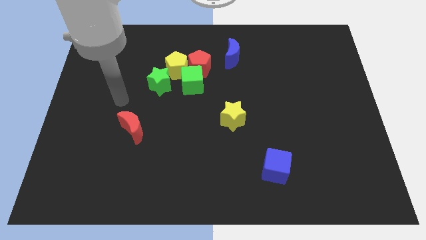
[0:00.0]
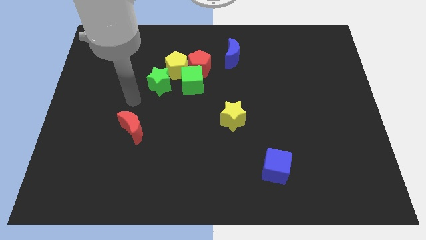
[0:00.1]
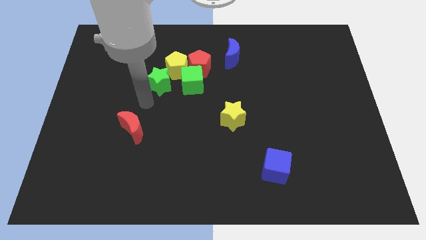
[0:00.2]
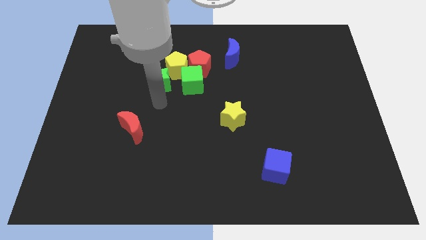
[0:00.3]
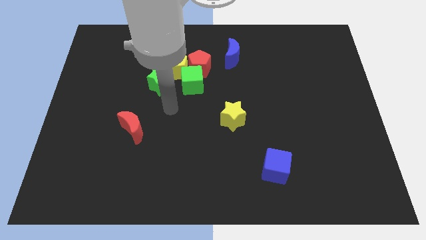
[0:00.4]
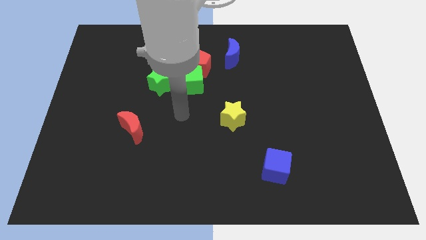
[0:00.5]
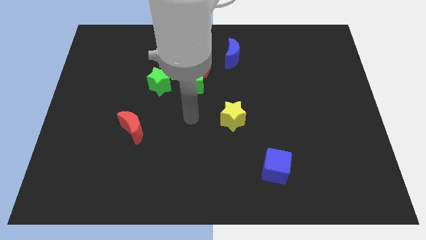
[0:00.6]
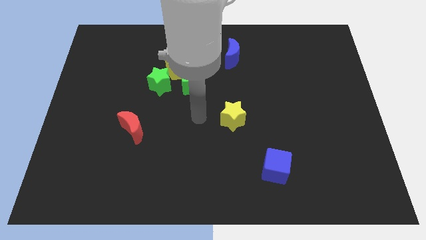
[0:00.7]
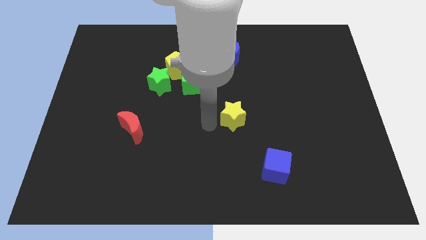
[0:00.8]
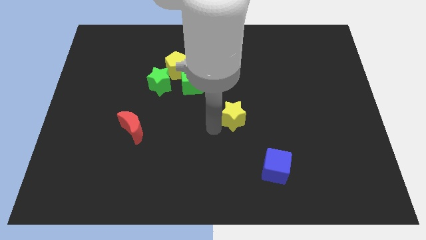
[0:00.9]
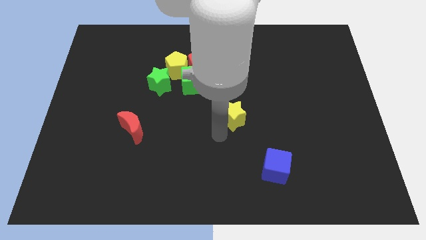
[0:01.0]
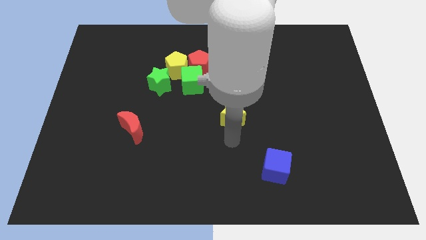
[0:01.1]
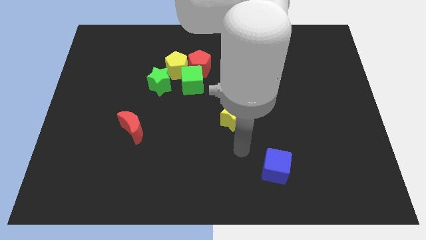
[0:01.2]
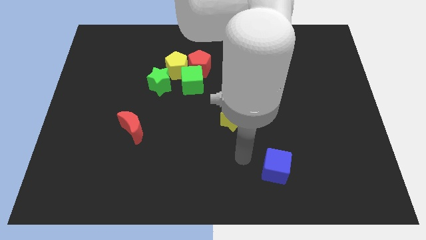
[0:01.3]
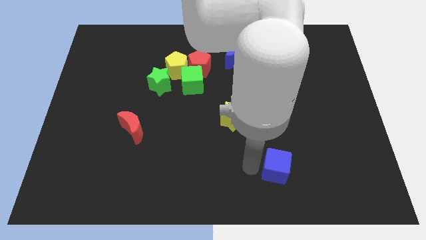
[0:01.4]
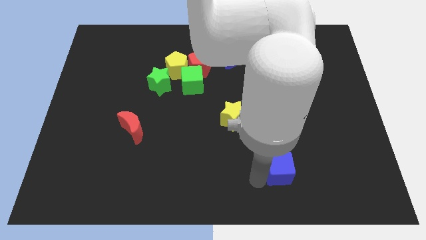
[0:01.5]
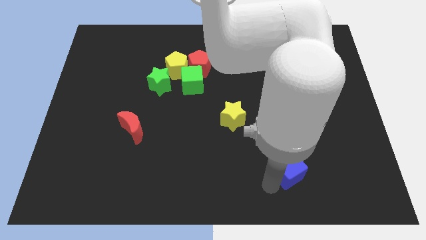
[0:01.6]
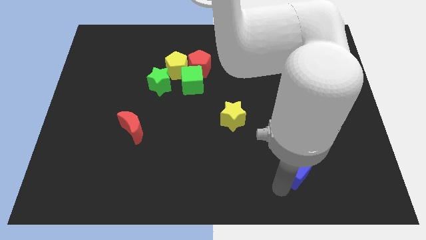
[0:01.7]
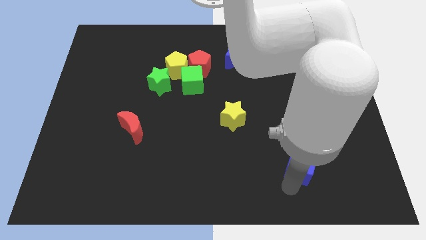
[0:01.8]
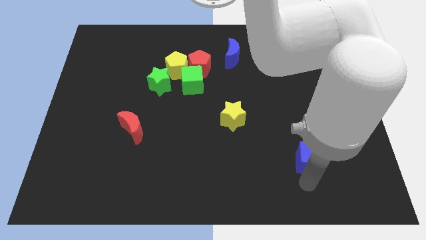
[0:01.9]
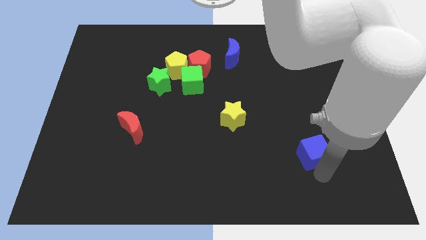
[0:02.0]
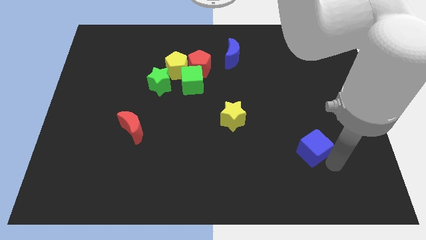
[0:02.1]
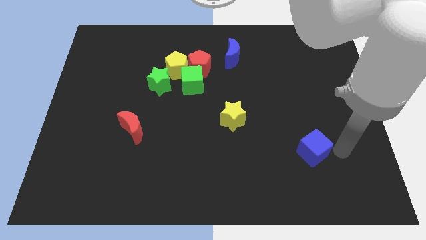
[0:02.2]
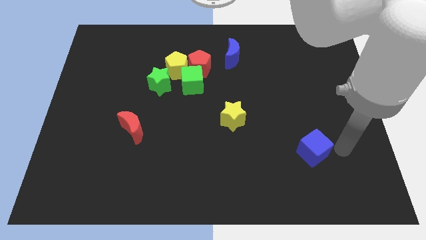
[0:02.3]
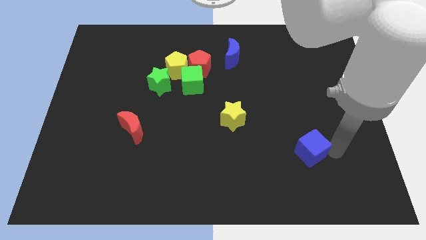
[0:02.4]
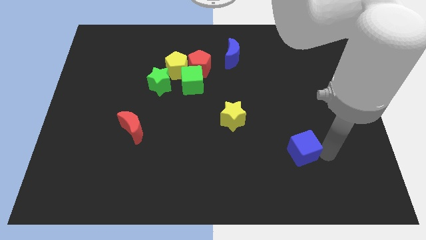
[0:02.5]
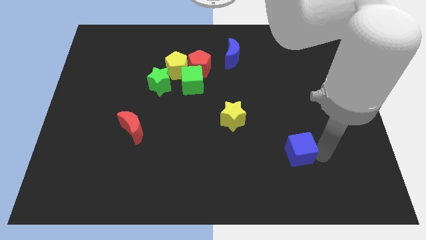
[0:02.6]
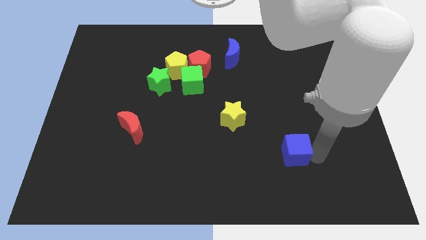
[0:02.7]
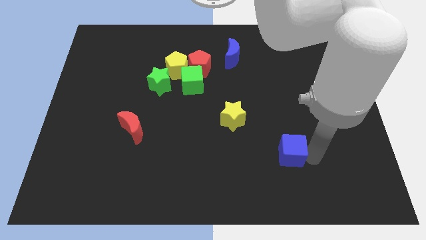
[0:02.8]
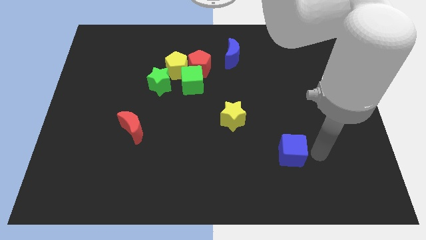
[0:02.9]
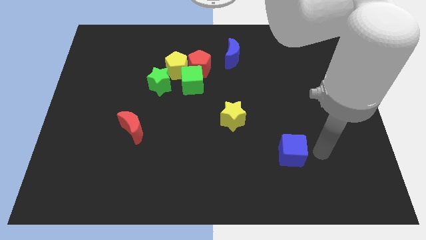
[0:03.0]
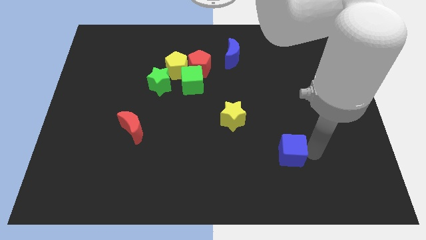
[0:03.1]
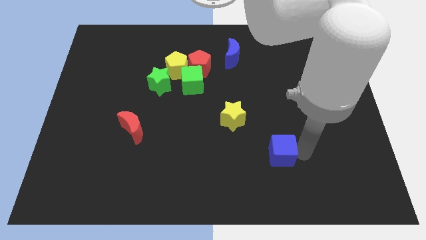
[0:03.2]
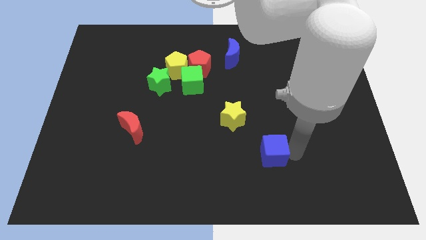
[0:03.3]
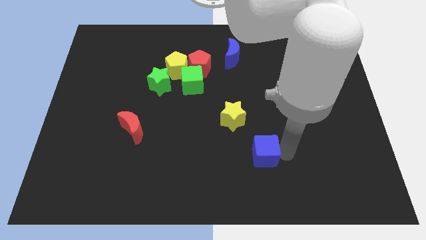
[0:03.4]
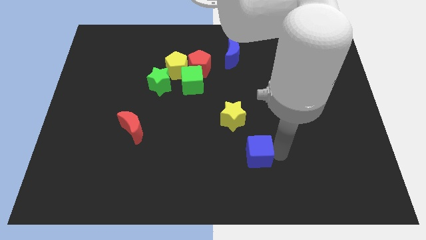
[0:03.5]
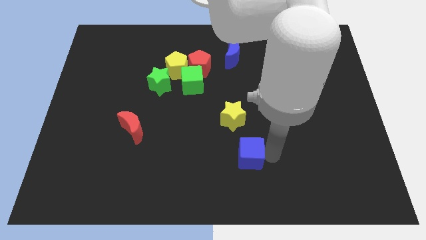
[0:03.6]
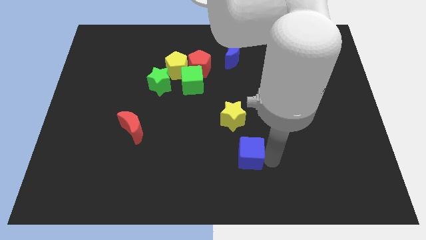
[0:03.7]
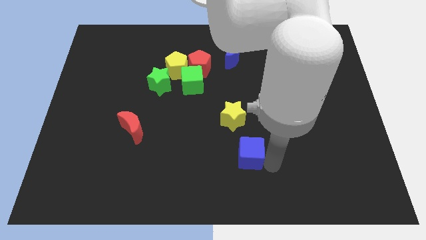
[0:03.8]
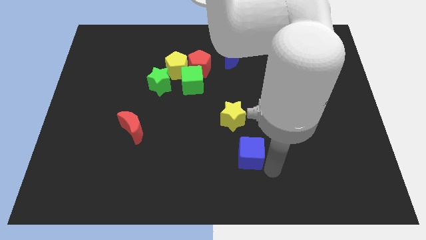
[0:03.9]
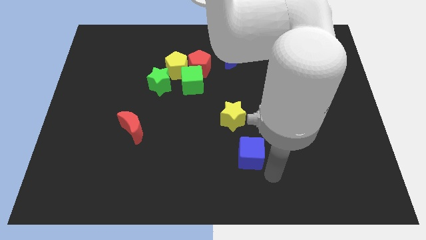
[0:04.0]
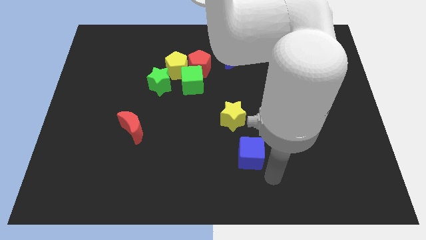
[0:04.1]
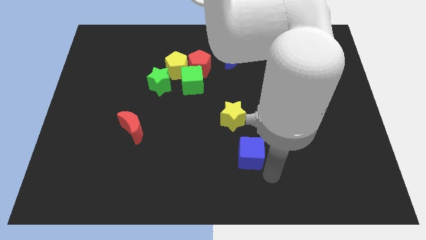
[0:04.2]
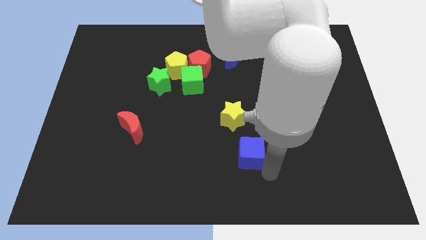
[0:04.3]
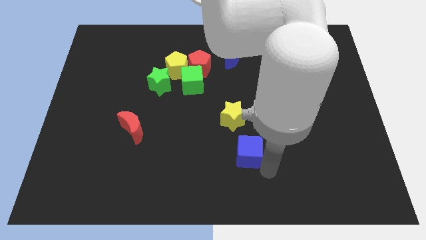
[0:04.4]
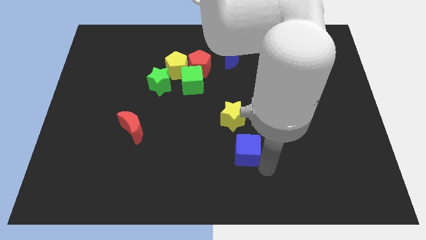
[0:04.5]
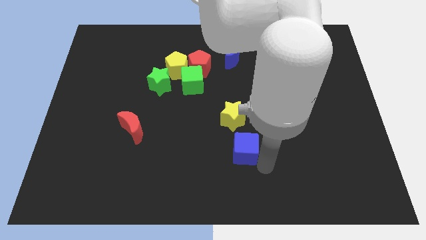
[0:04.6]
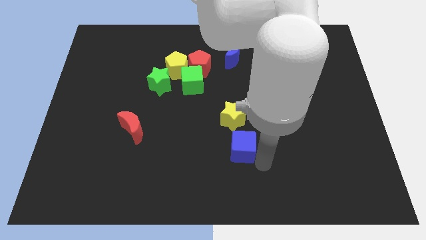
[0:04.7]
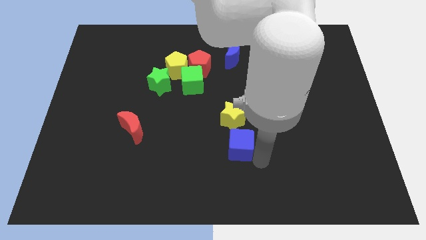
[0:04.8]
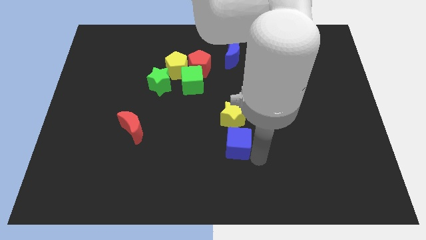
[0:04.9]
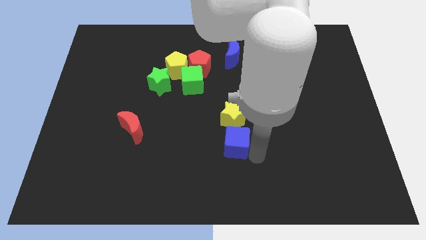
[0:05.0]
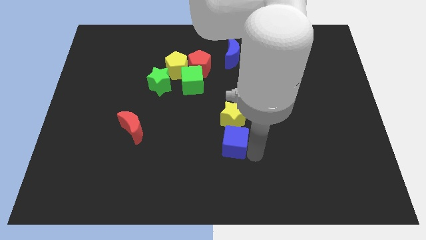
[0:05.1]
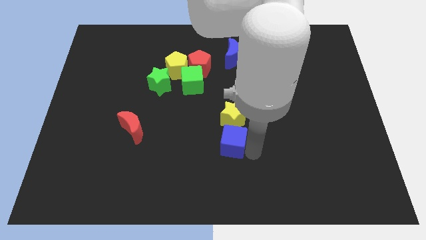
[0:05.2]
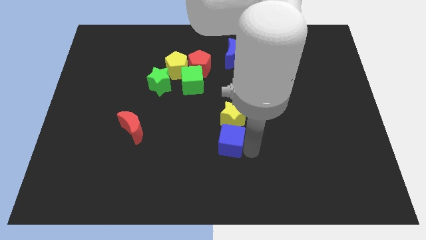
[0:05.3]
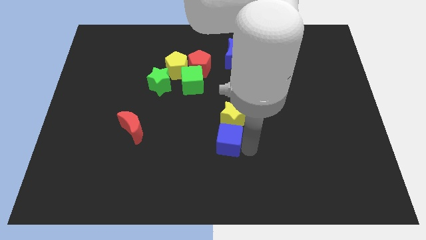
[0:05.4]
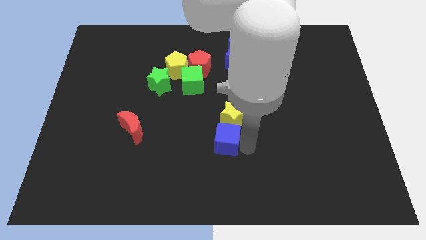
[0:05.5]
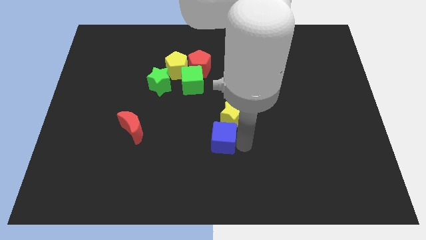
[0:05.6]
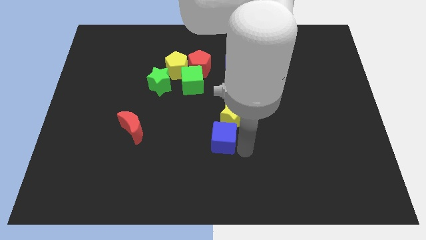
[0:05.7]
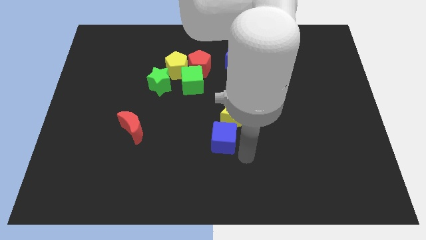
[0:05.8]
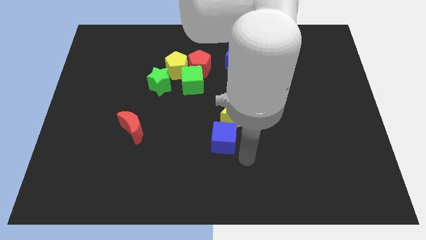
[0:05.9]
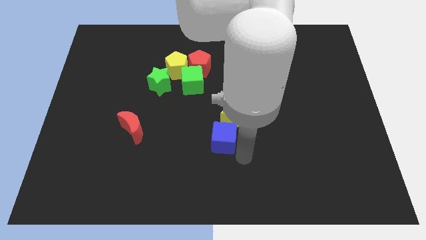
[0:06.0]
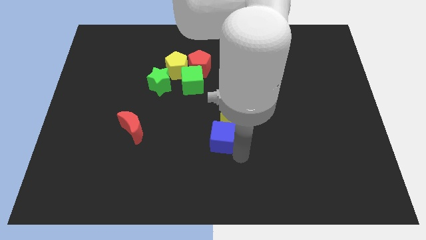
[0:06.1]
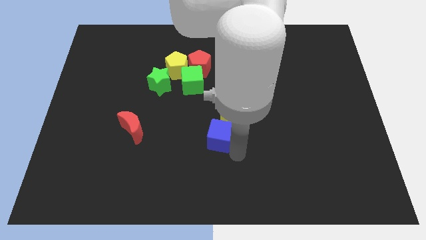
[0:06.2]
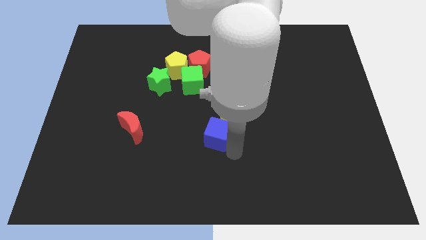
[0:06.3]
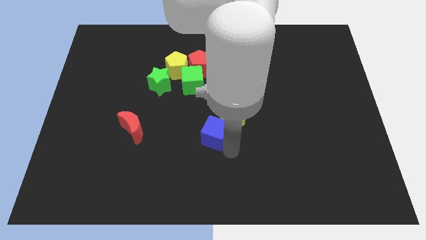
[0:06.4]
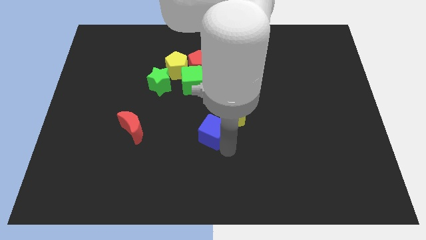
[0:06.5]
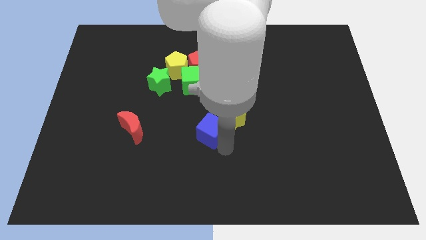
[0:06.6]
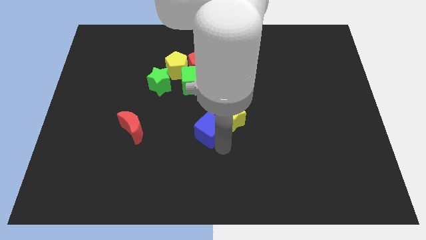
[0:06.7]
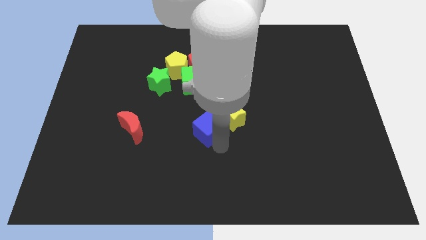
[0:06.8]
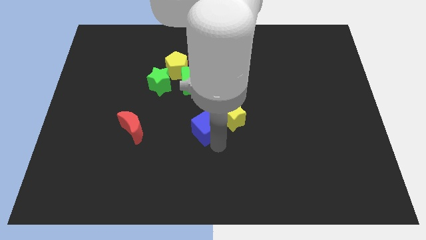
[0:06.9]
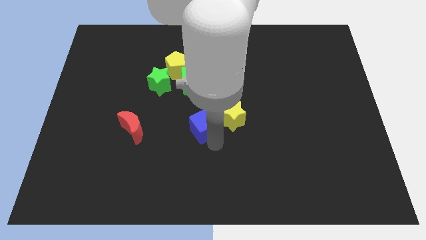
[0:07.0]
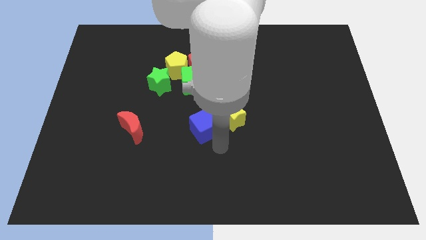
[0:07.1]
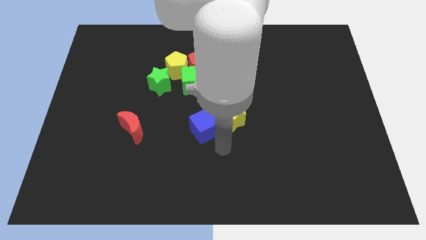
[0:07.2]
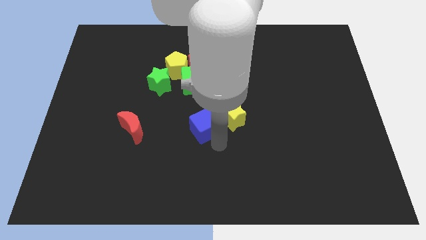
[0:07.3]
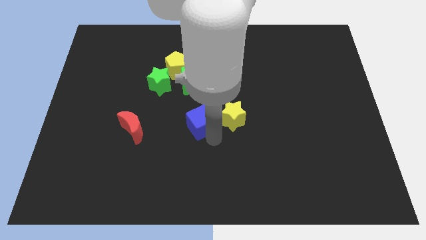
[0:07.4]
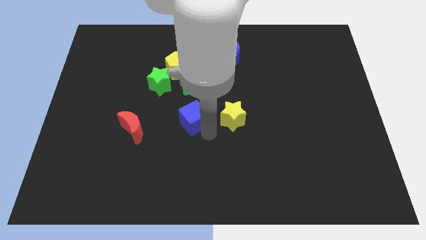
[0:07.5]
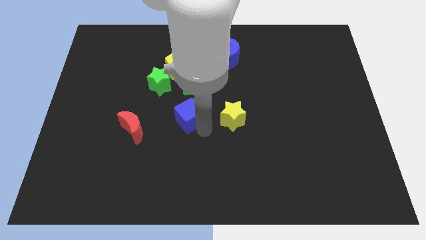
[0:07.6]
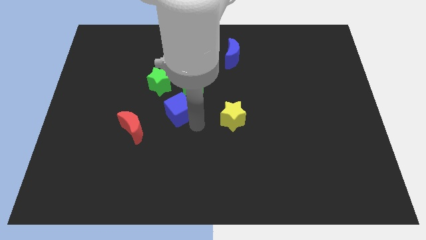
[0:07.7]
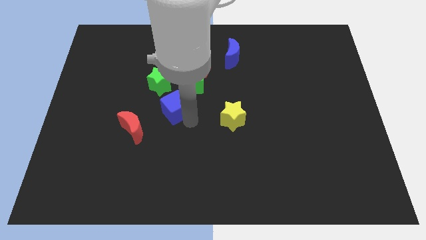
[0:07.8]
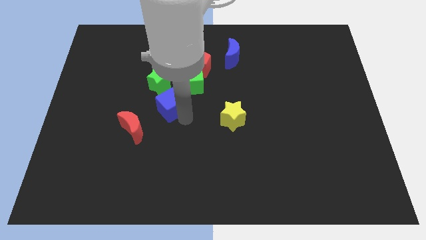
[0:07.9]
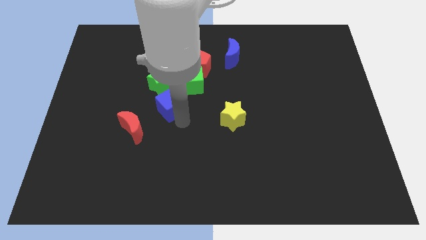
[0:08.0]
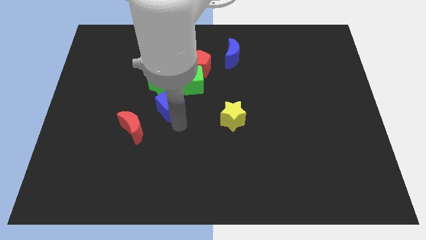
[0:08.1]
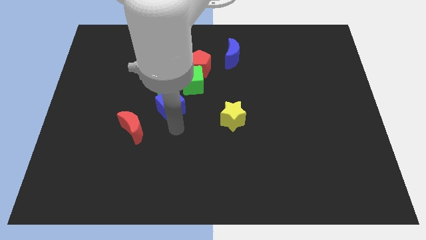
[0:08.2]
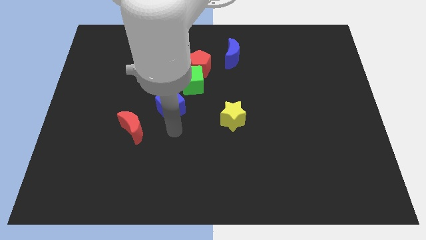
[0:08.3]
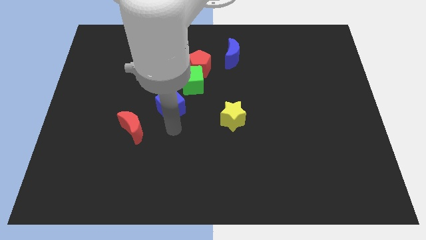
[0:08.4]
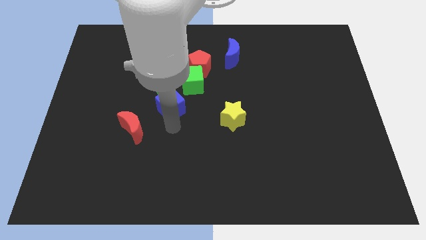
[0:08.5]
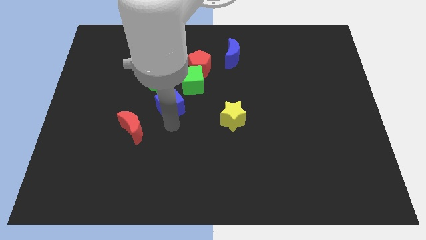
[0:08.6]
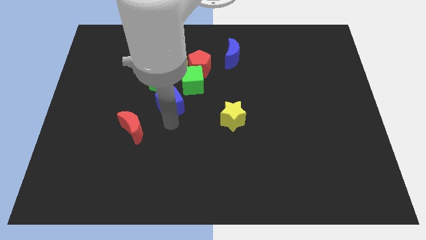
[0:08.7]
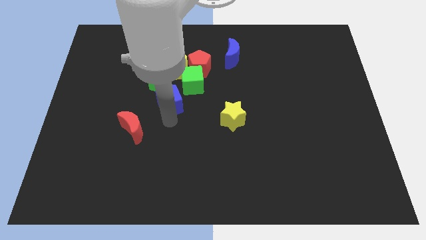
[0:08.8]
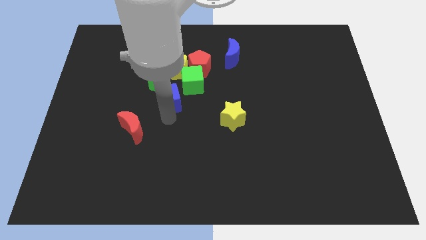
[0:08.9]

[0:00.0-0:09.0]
slide the blue cube next to the green star
